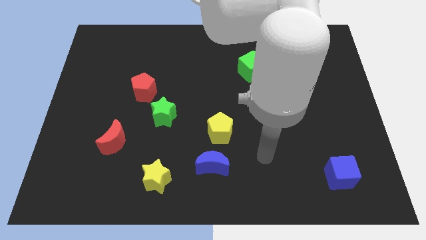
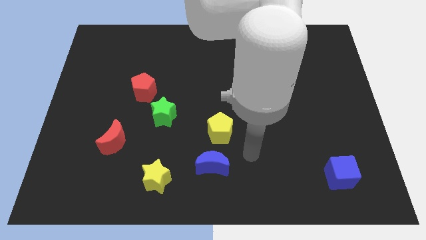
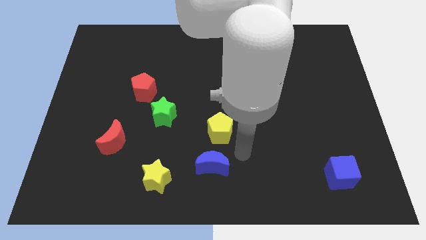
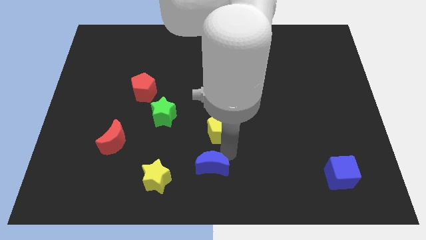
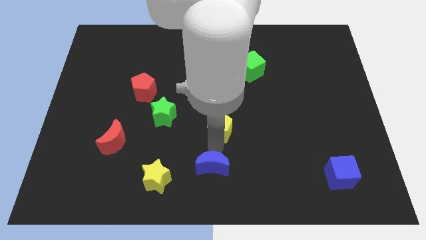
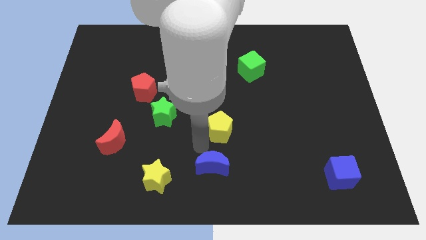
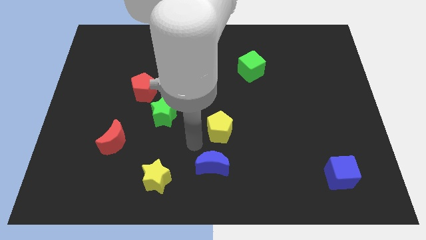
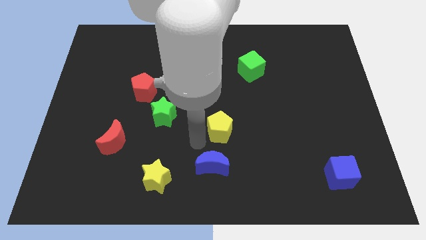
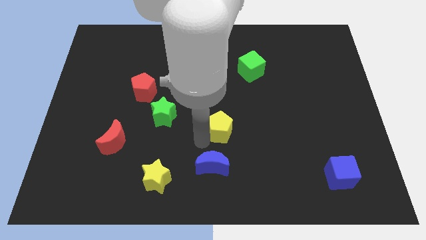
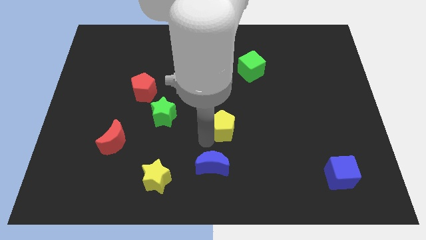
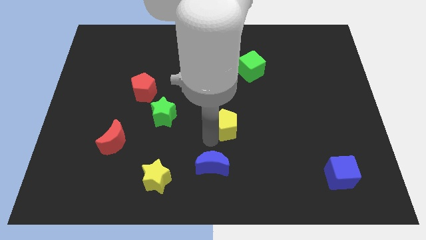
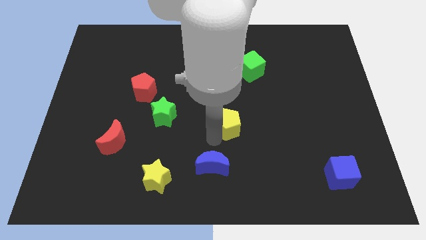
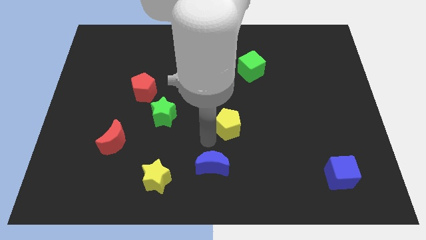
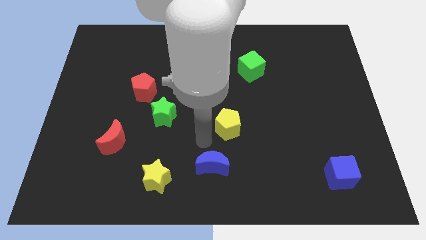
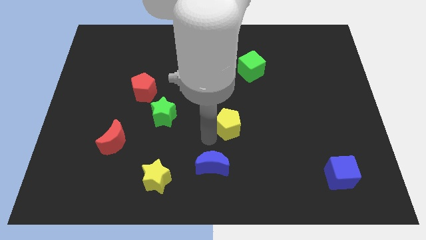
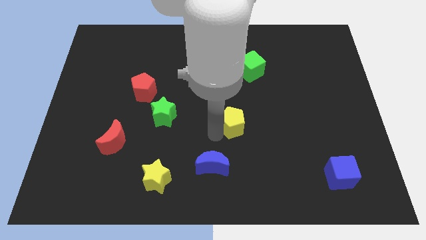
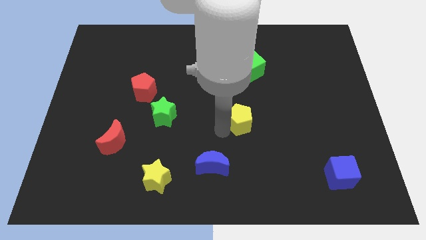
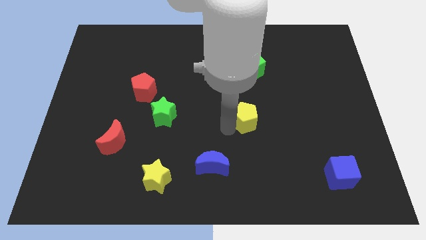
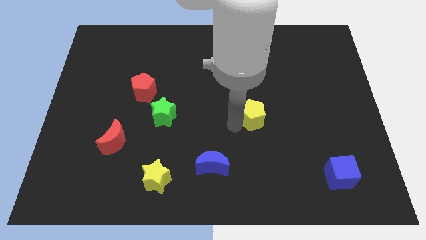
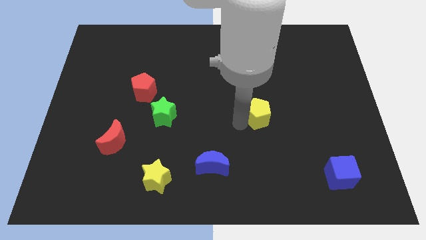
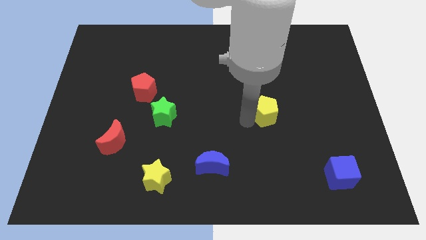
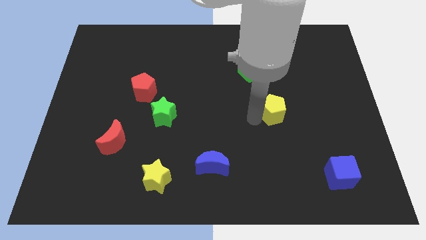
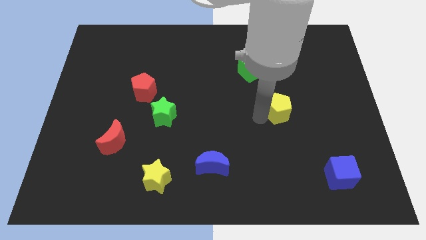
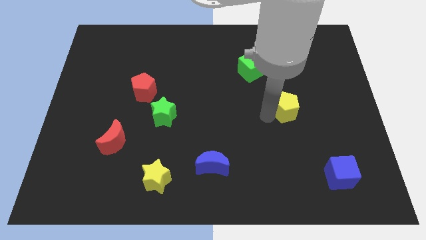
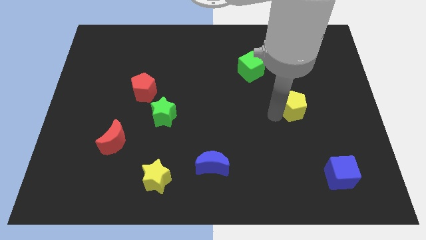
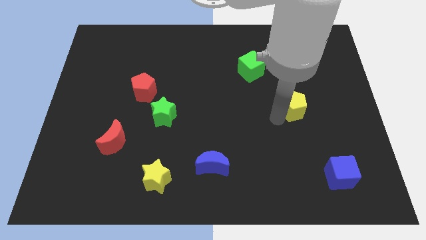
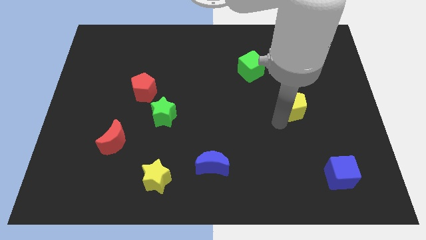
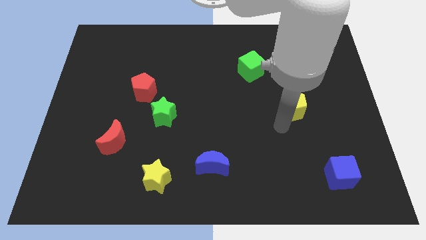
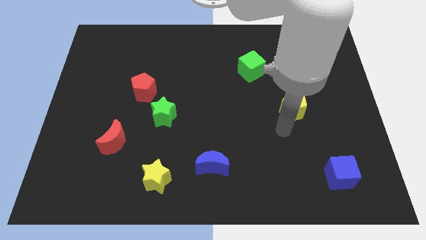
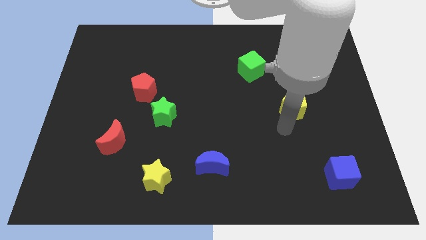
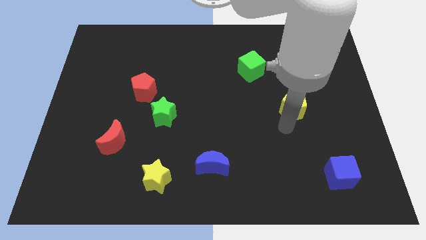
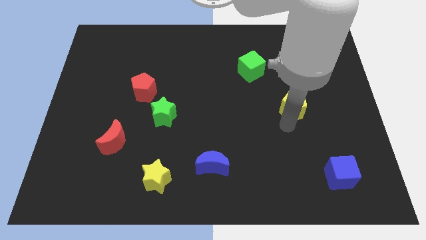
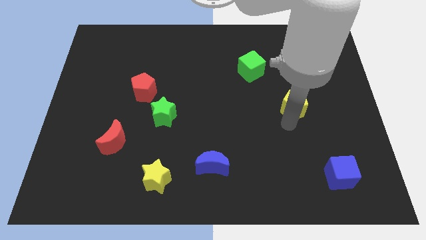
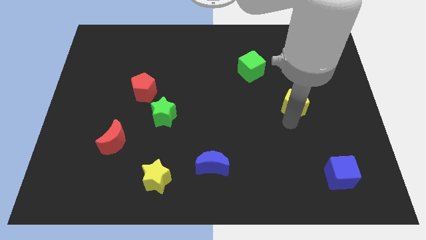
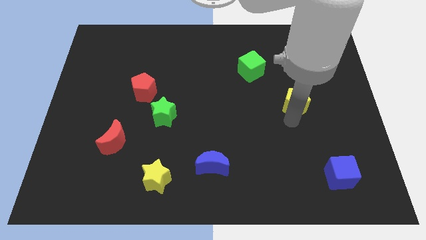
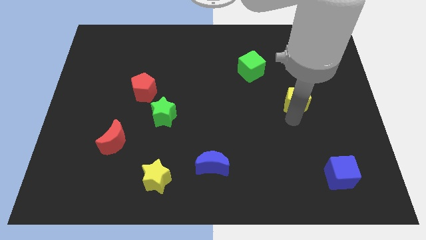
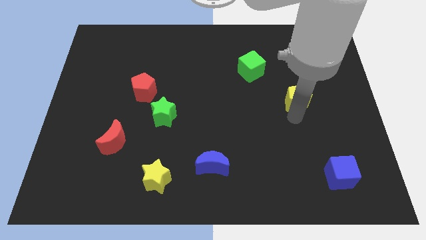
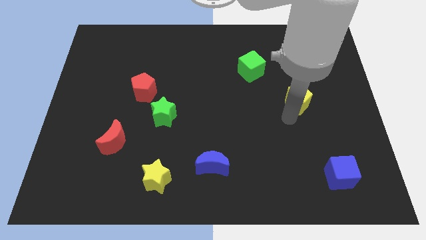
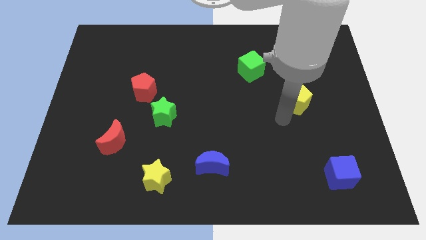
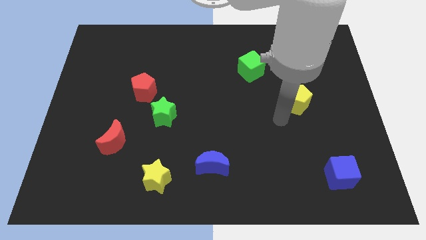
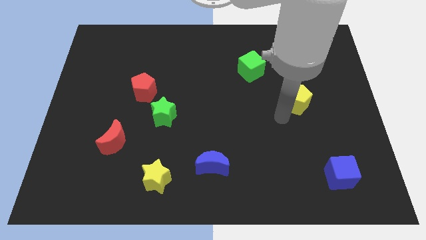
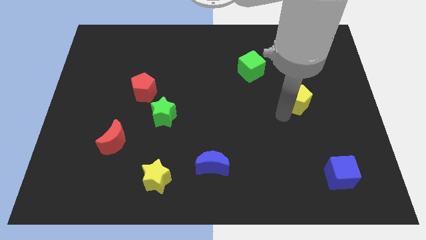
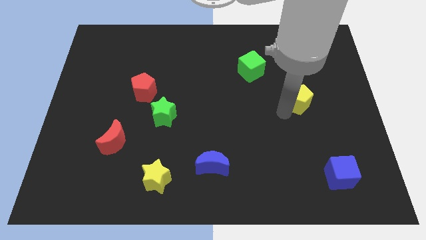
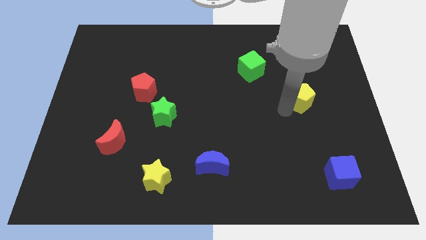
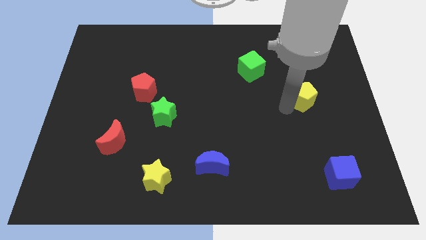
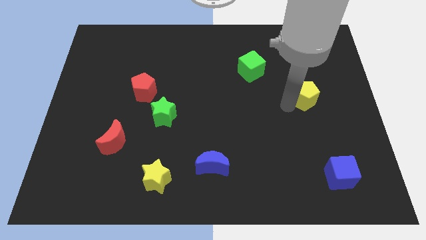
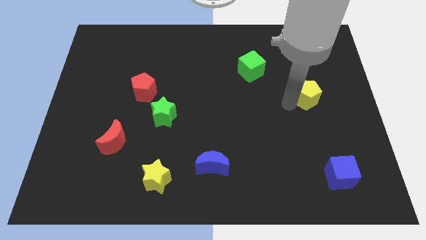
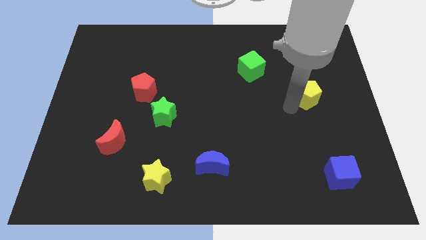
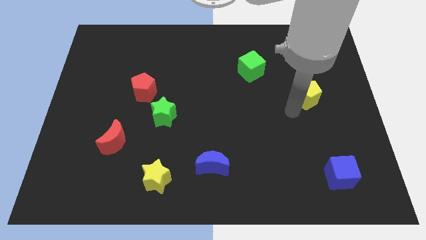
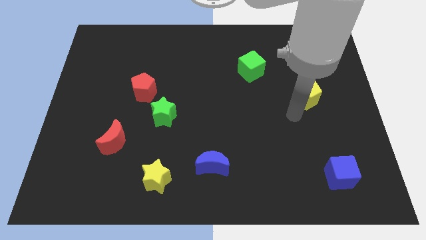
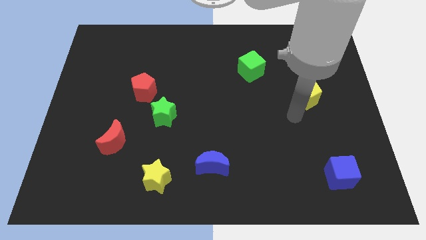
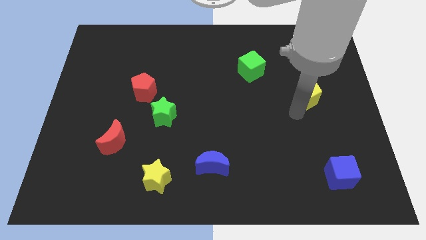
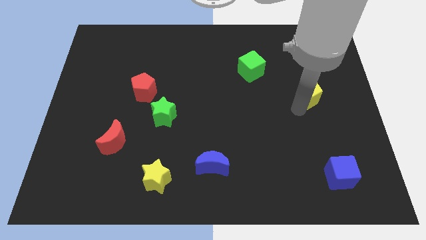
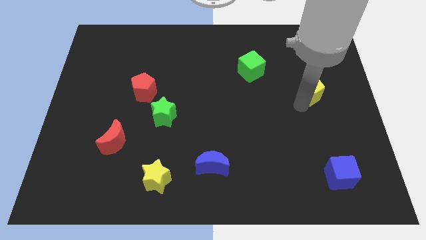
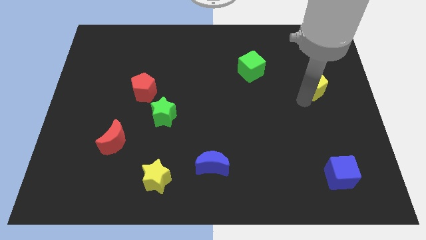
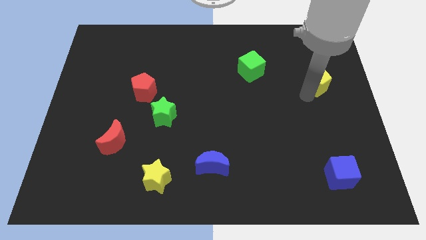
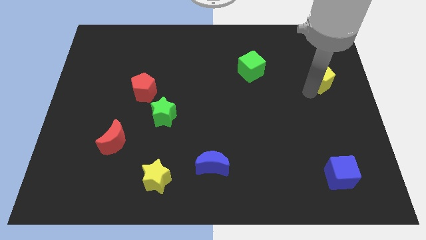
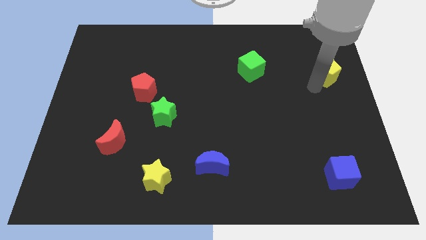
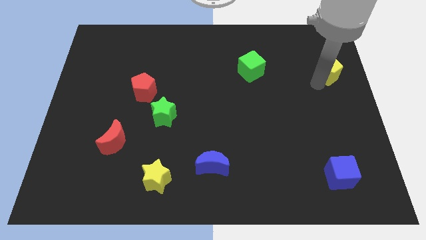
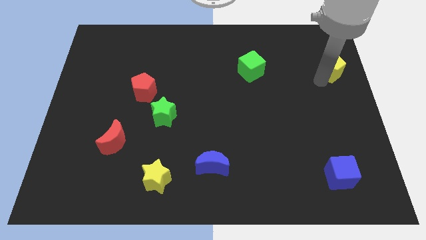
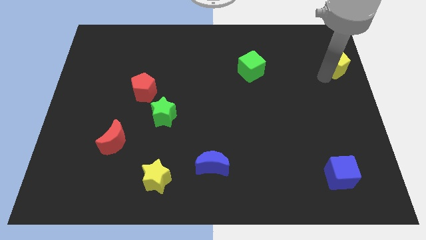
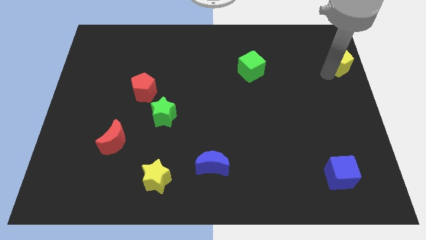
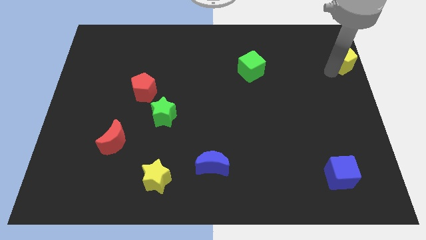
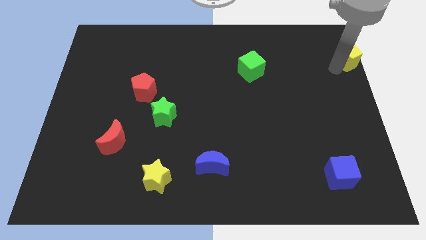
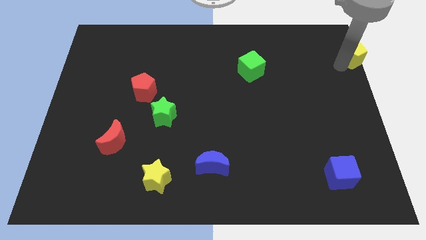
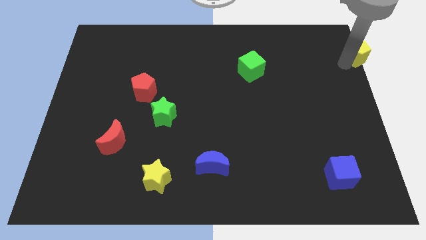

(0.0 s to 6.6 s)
push the yellow pentagon to the top right

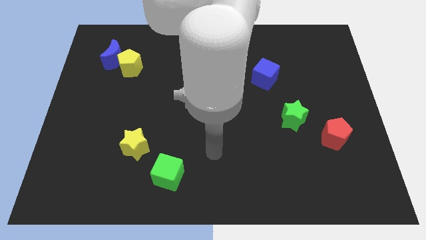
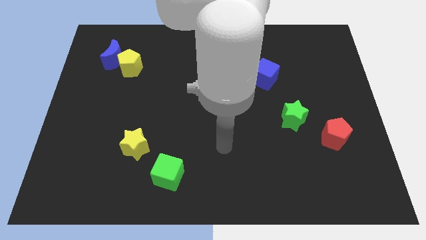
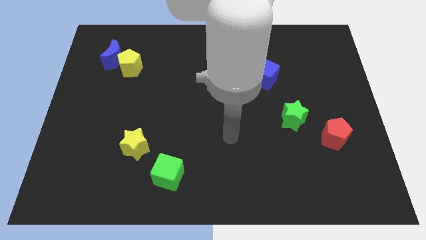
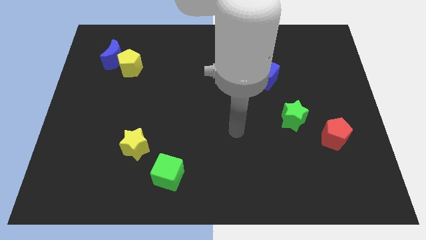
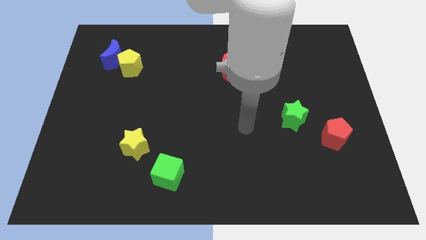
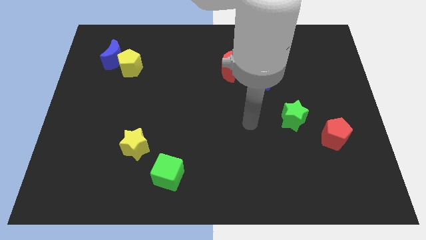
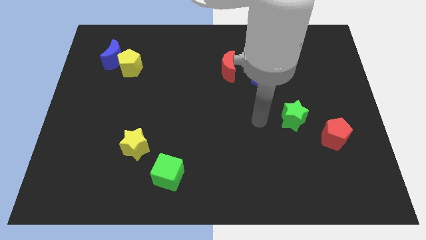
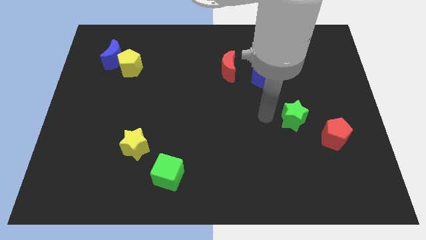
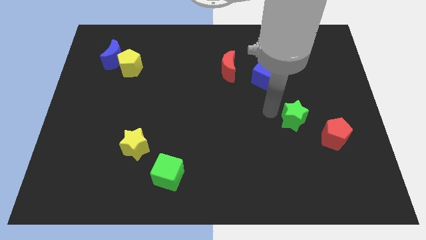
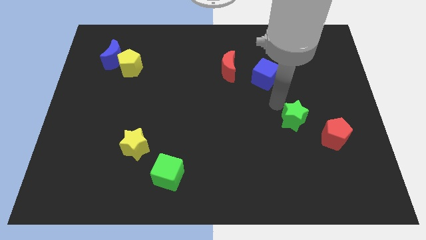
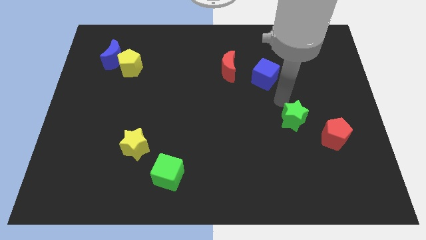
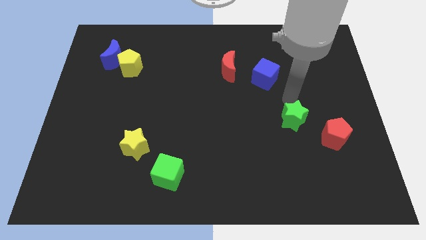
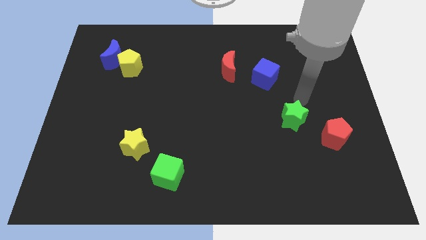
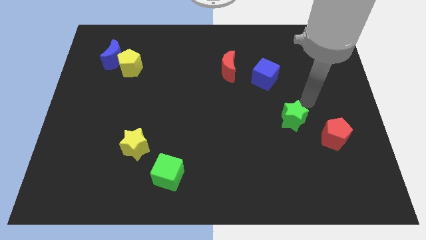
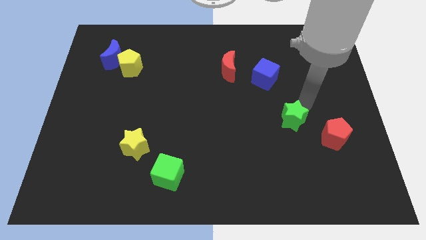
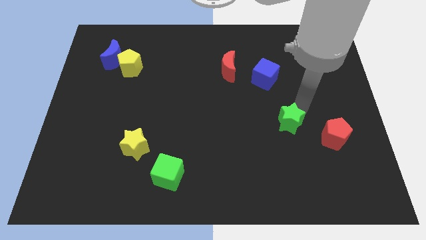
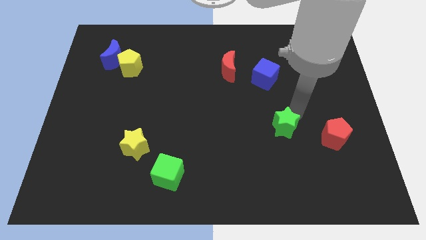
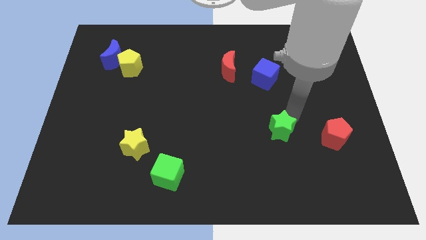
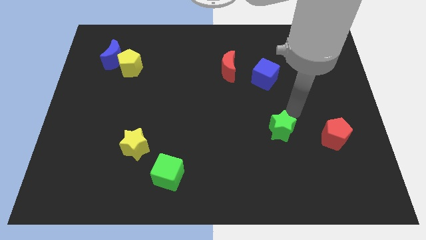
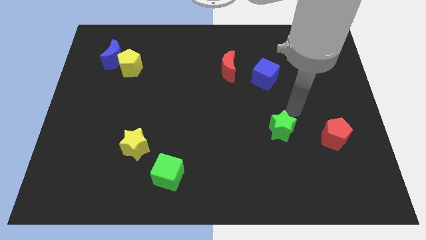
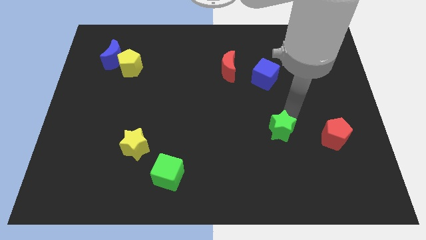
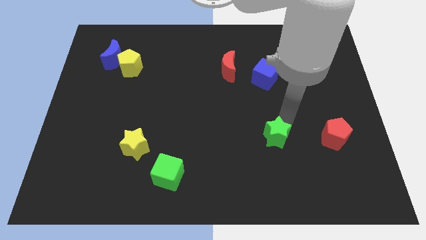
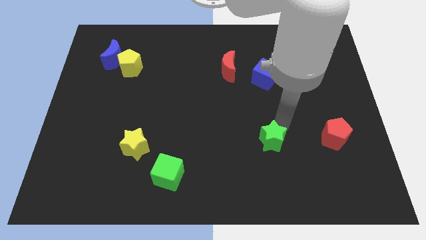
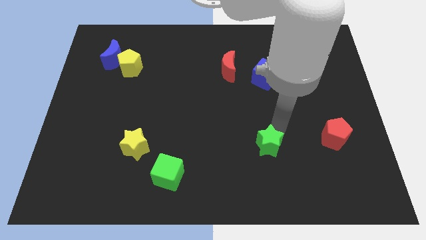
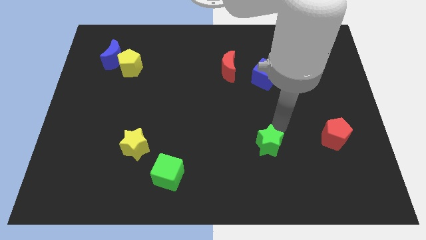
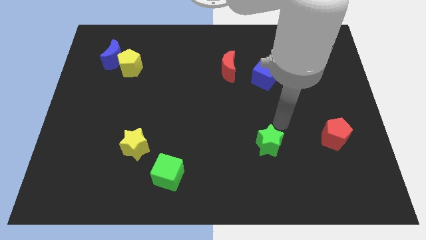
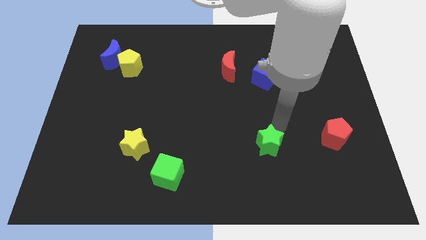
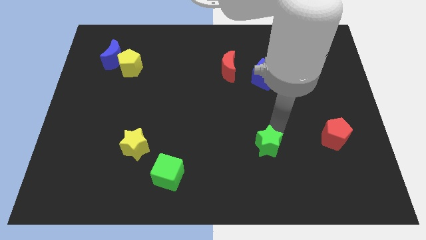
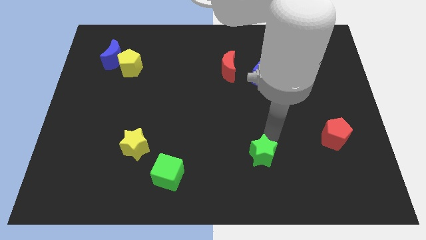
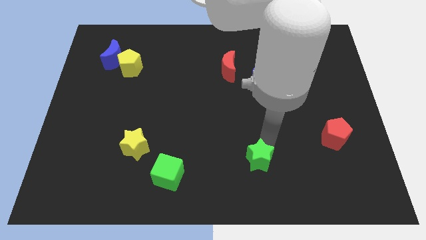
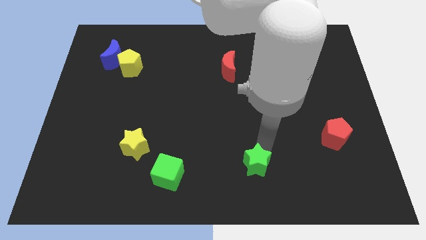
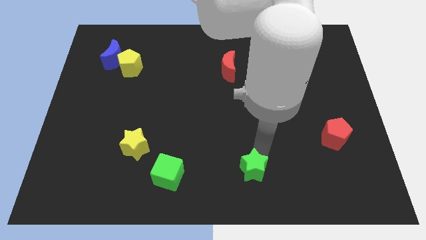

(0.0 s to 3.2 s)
push the green star to the bottom side
